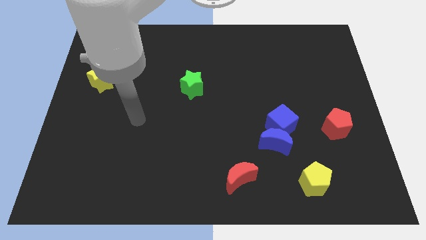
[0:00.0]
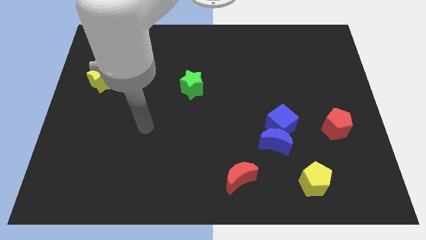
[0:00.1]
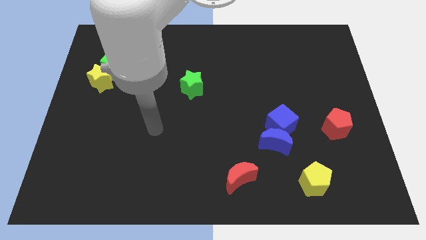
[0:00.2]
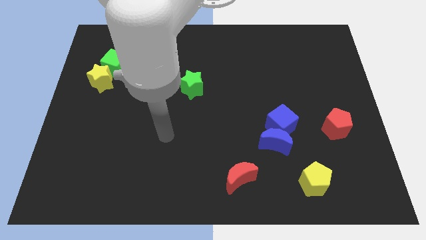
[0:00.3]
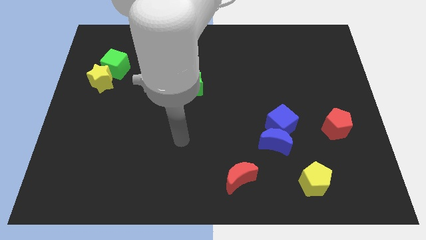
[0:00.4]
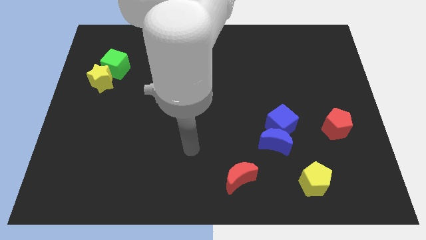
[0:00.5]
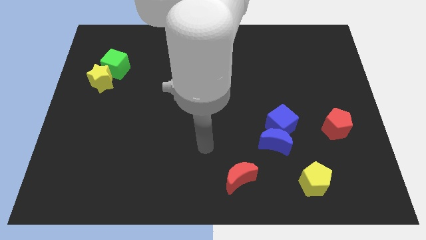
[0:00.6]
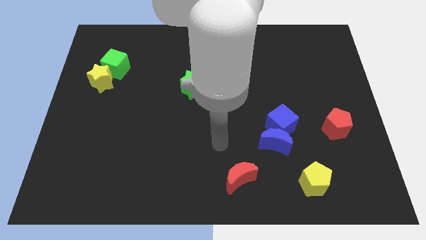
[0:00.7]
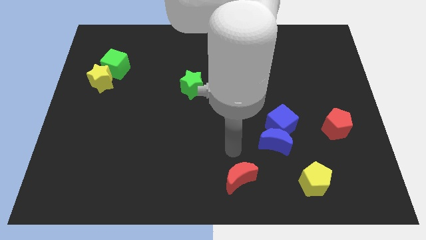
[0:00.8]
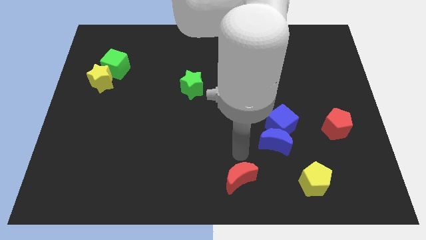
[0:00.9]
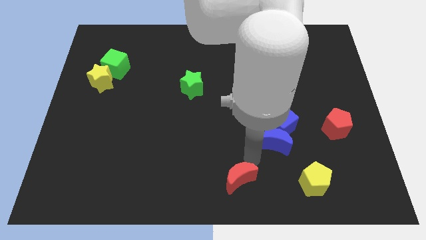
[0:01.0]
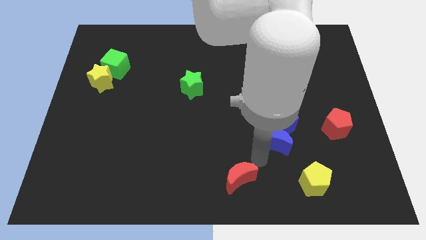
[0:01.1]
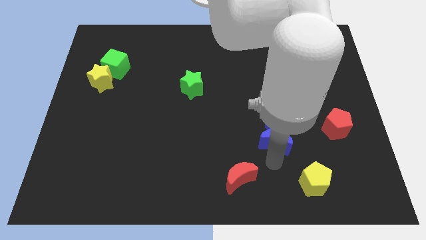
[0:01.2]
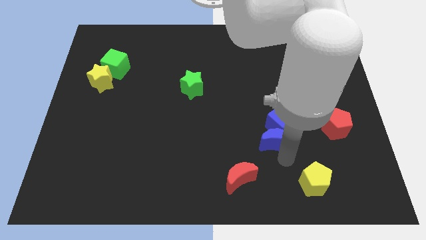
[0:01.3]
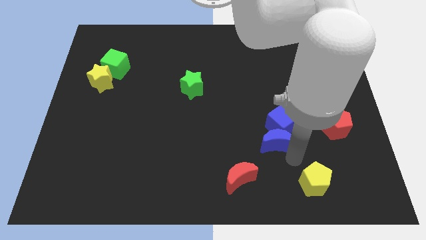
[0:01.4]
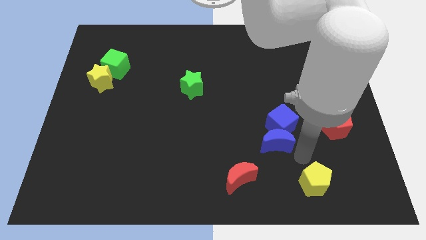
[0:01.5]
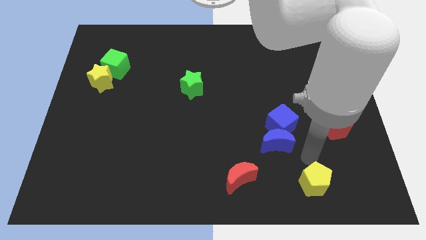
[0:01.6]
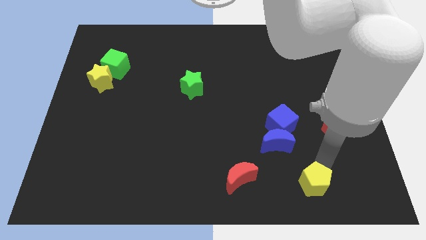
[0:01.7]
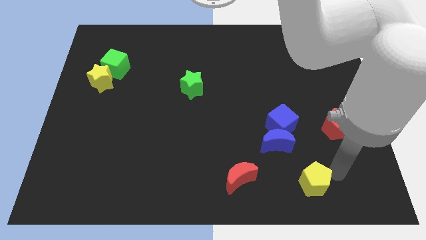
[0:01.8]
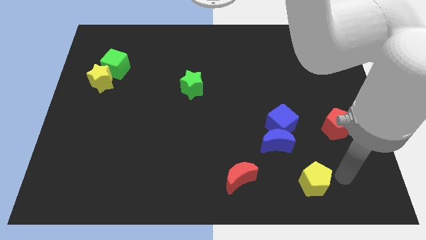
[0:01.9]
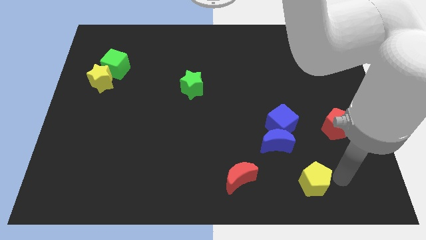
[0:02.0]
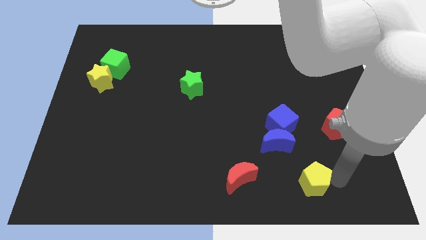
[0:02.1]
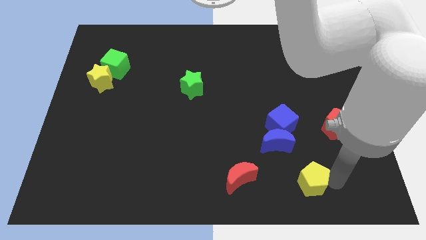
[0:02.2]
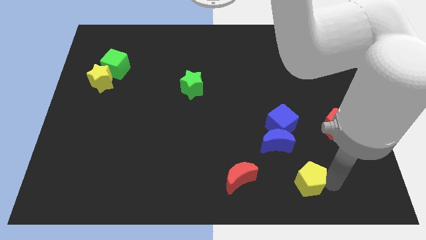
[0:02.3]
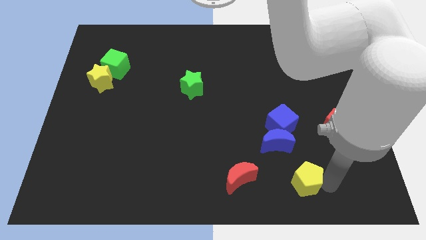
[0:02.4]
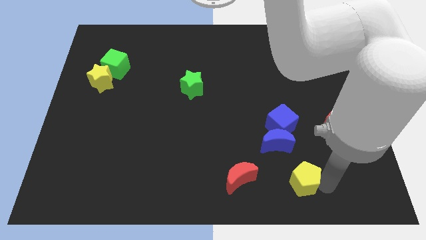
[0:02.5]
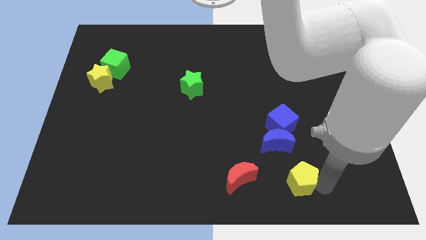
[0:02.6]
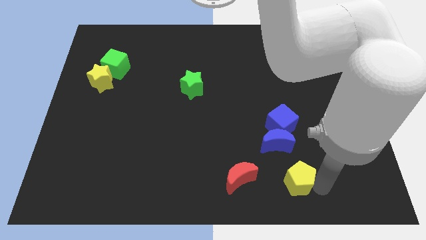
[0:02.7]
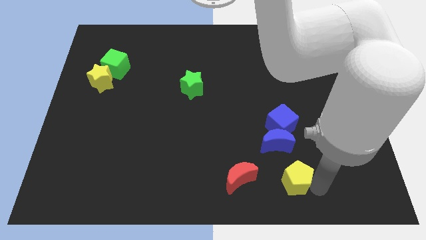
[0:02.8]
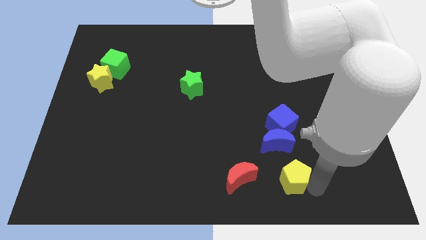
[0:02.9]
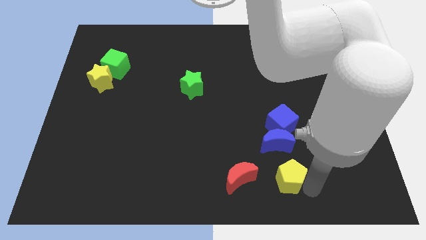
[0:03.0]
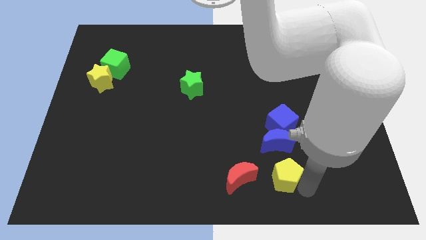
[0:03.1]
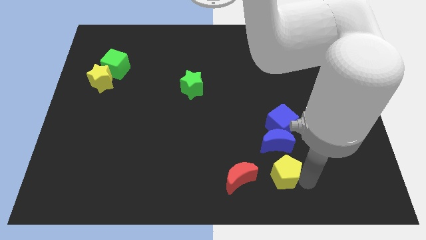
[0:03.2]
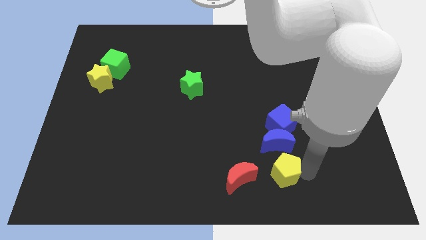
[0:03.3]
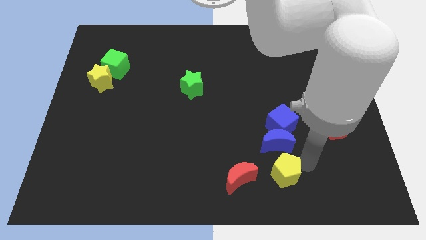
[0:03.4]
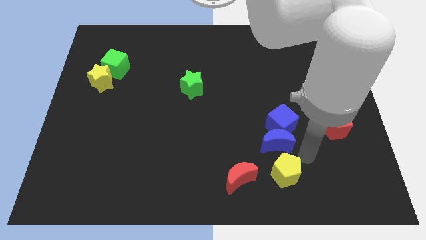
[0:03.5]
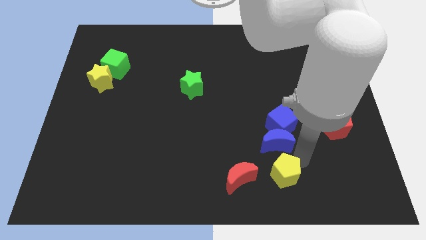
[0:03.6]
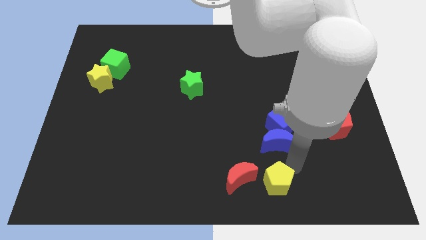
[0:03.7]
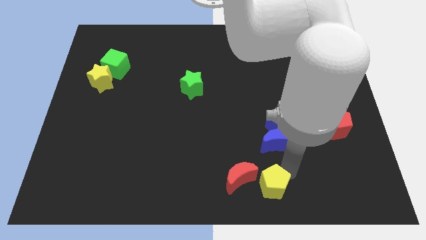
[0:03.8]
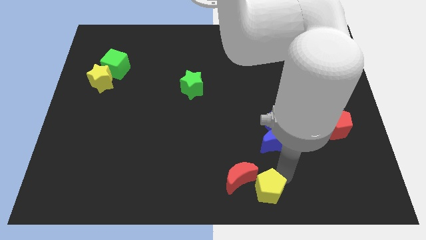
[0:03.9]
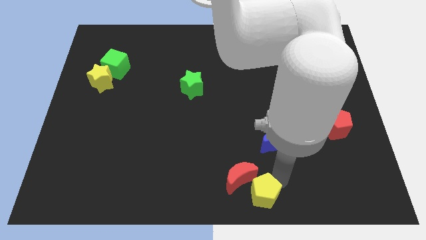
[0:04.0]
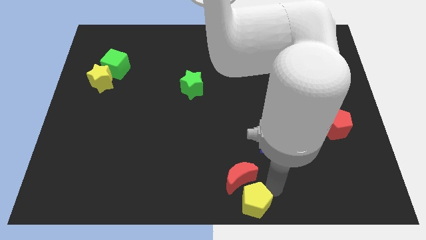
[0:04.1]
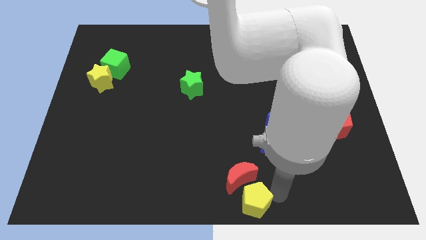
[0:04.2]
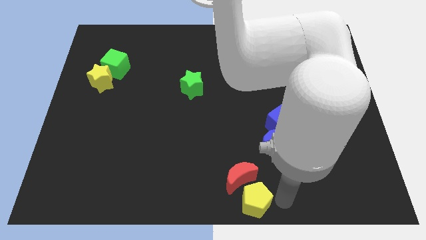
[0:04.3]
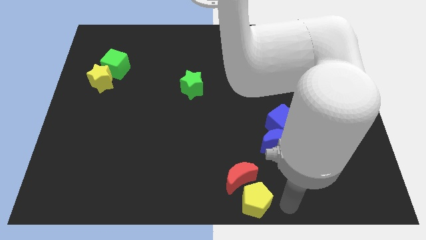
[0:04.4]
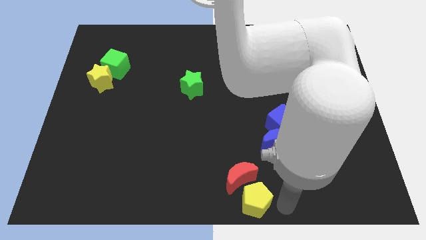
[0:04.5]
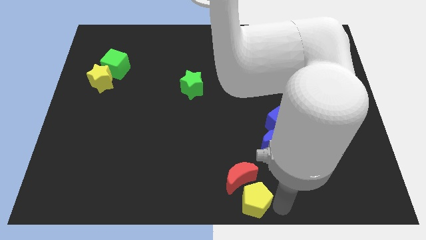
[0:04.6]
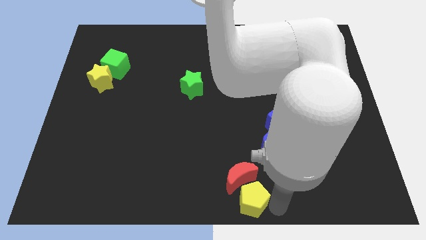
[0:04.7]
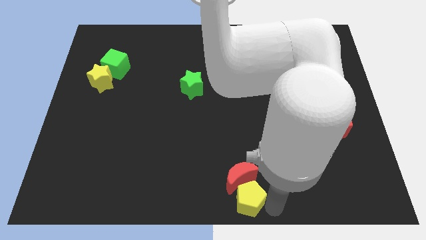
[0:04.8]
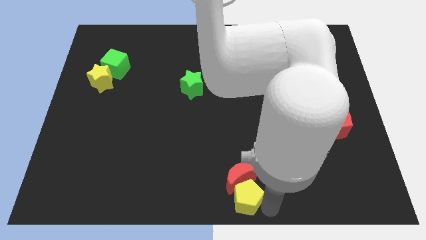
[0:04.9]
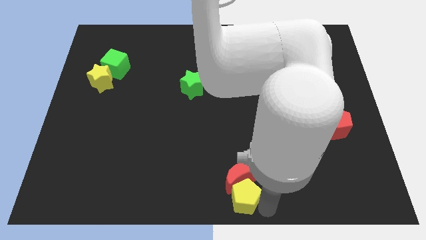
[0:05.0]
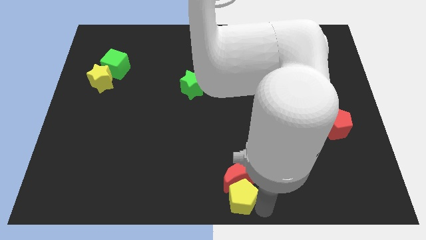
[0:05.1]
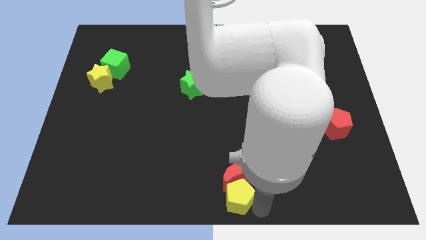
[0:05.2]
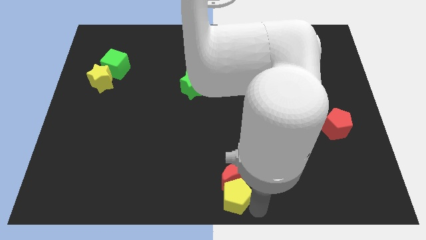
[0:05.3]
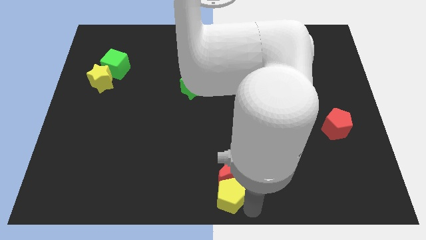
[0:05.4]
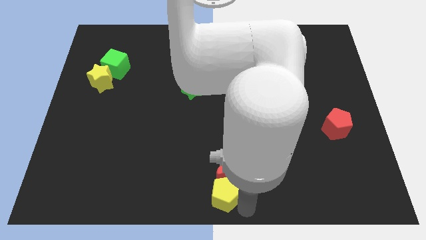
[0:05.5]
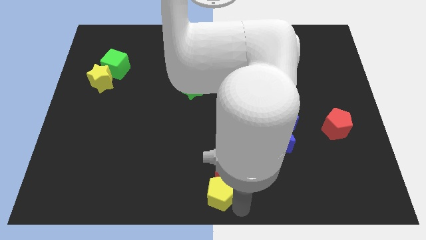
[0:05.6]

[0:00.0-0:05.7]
push the yellow pentagon just left of the red moon
